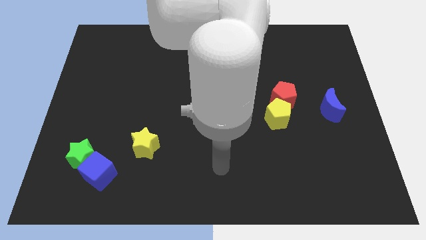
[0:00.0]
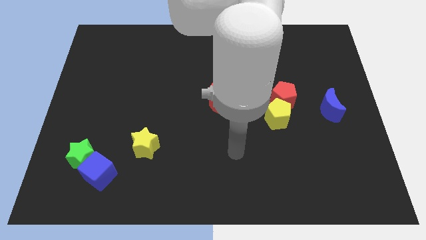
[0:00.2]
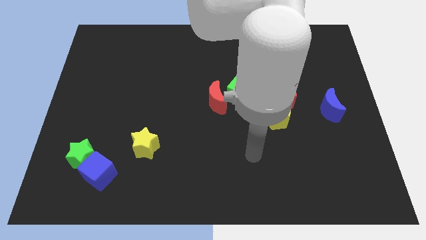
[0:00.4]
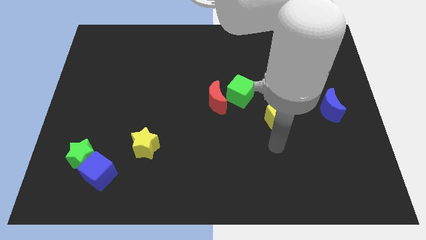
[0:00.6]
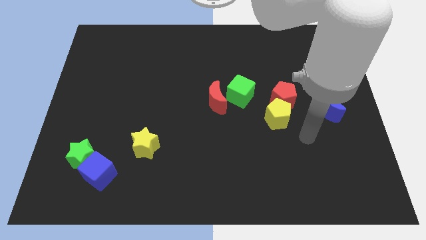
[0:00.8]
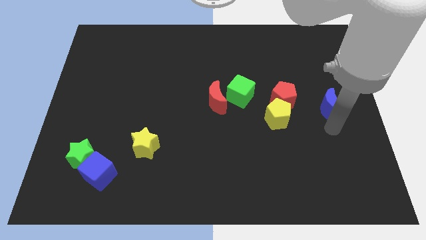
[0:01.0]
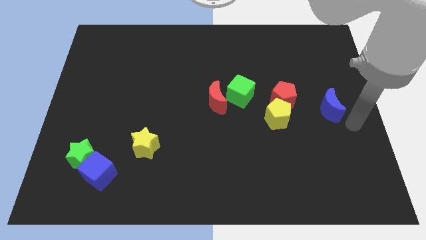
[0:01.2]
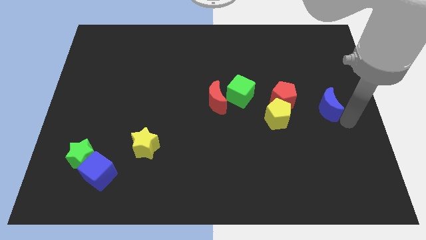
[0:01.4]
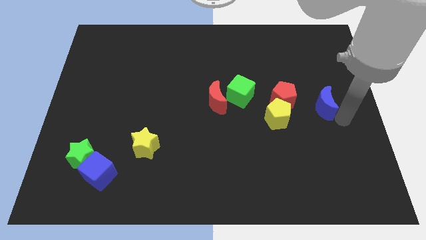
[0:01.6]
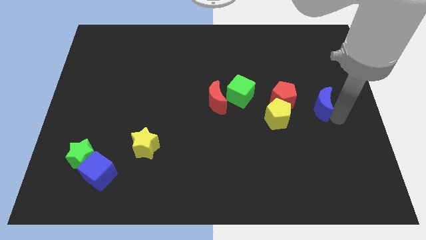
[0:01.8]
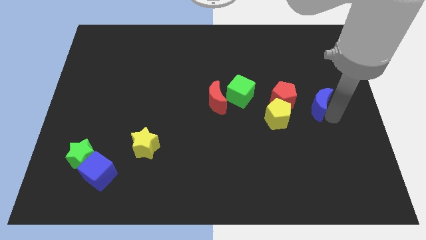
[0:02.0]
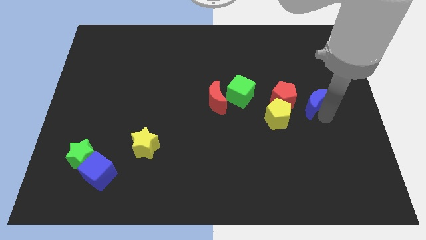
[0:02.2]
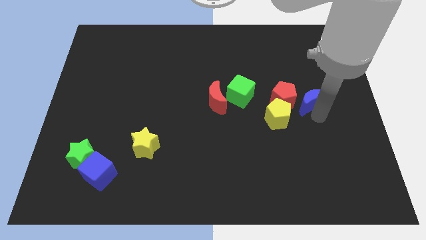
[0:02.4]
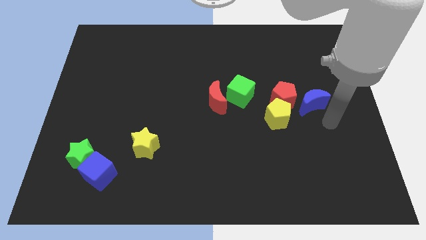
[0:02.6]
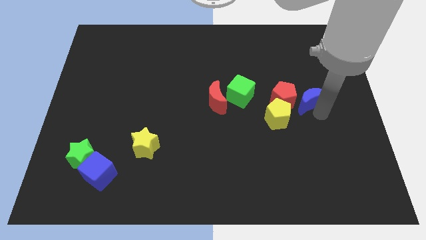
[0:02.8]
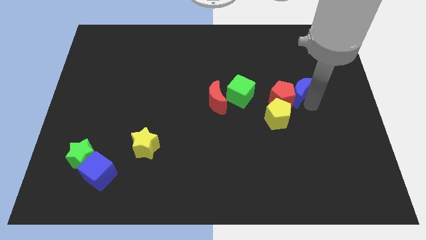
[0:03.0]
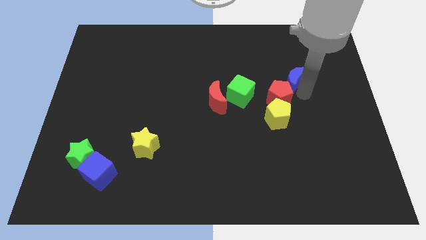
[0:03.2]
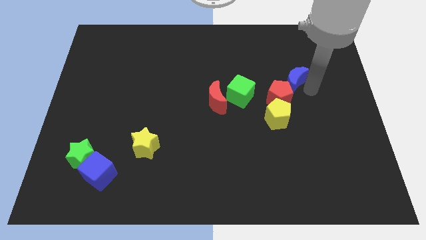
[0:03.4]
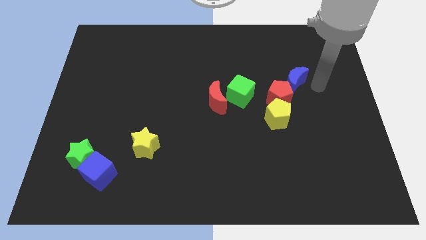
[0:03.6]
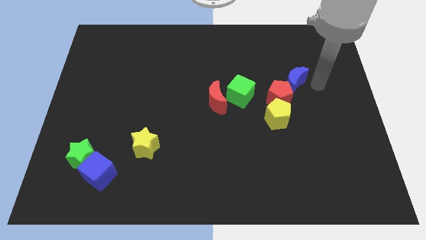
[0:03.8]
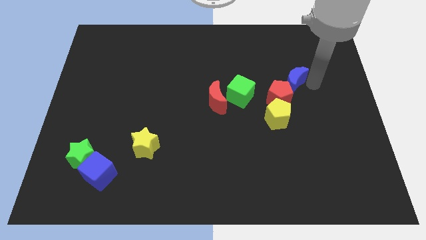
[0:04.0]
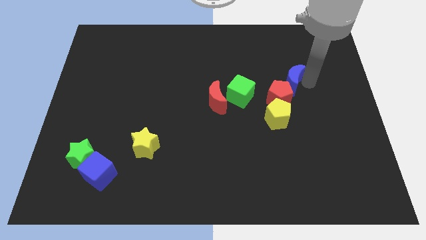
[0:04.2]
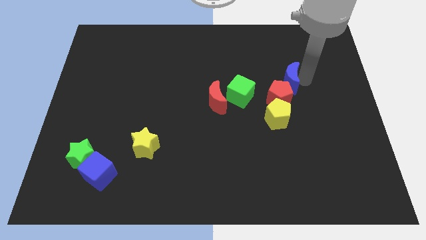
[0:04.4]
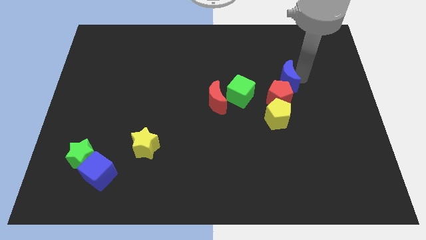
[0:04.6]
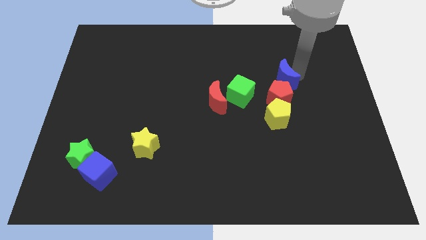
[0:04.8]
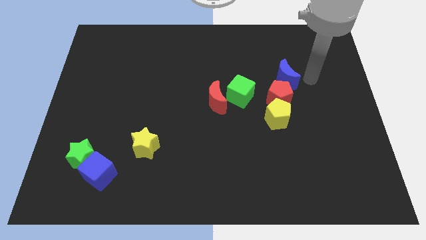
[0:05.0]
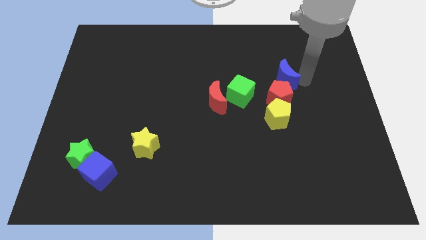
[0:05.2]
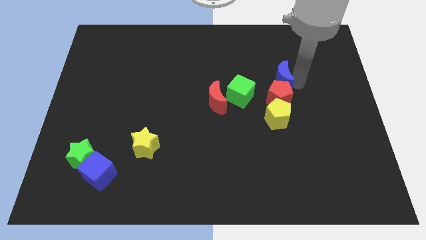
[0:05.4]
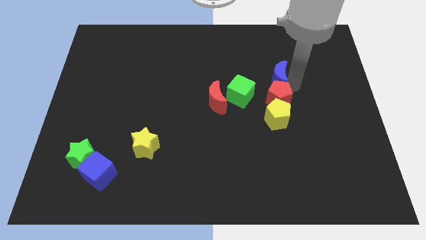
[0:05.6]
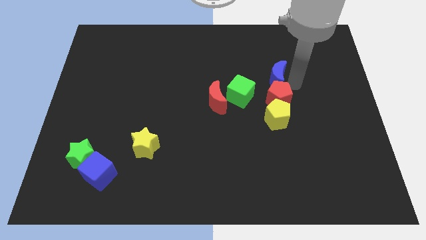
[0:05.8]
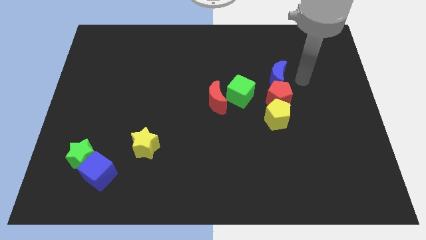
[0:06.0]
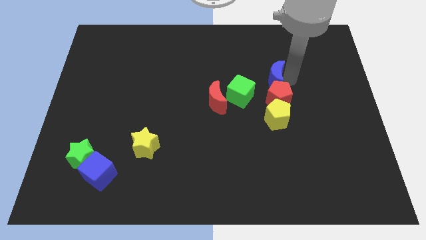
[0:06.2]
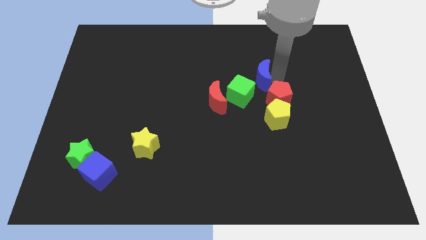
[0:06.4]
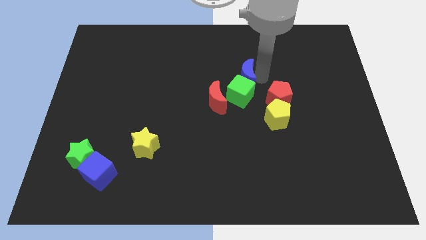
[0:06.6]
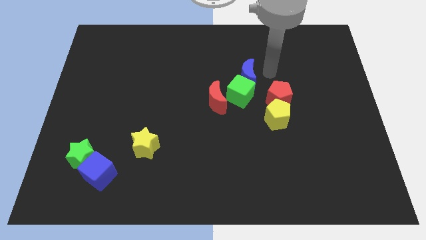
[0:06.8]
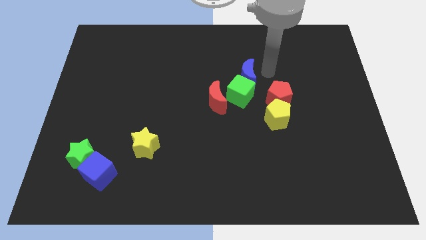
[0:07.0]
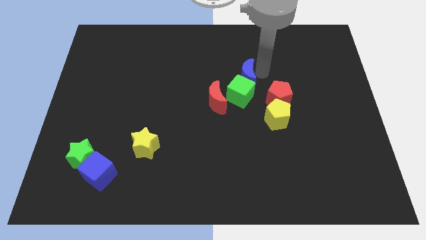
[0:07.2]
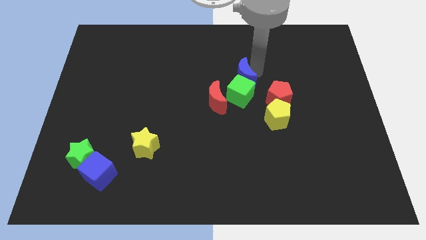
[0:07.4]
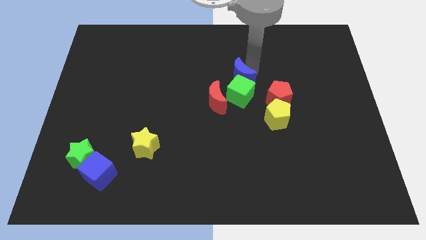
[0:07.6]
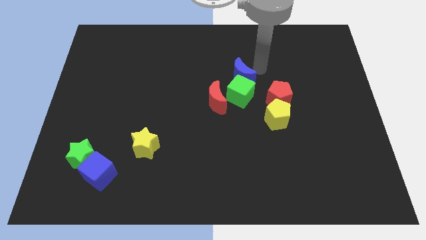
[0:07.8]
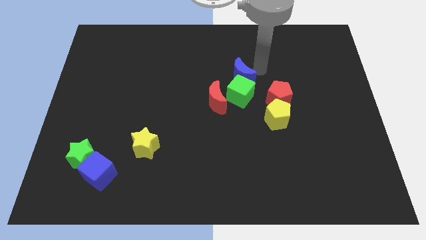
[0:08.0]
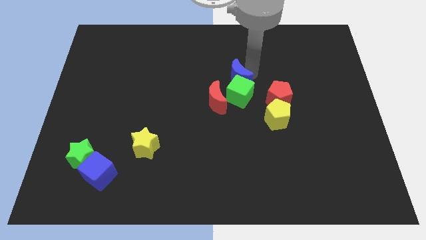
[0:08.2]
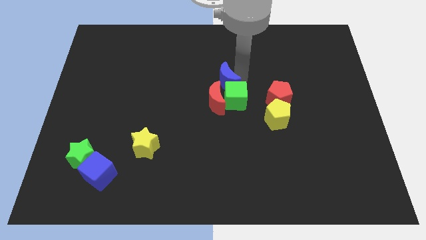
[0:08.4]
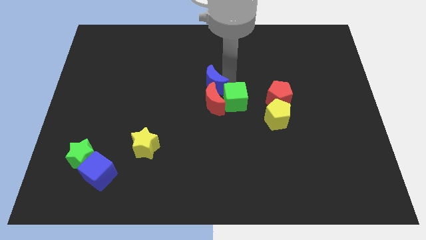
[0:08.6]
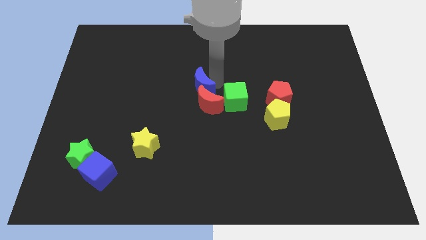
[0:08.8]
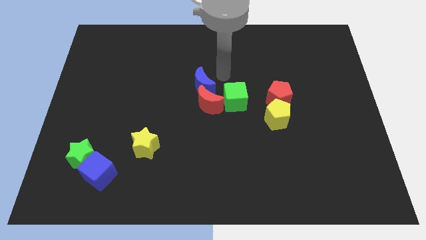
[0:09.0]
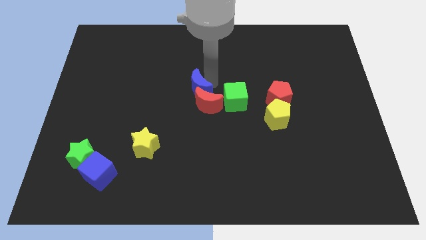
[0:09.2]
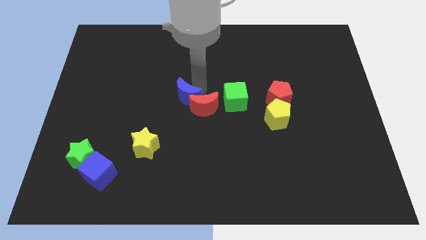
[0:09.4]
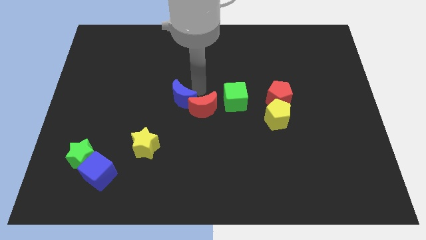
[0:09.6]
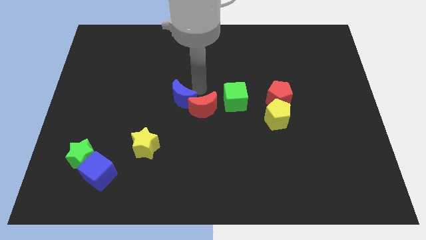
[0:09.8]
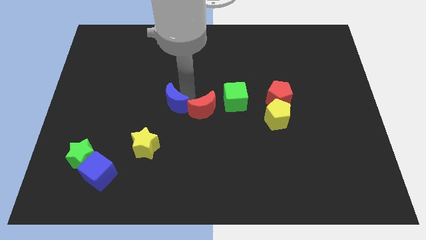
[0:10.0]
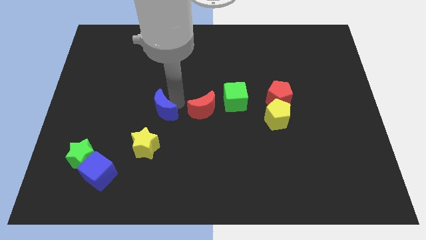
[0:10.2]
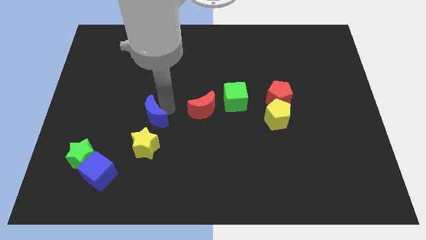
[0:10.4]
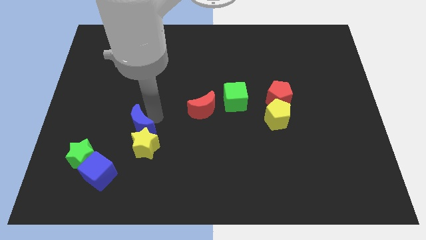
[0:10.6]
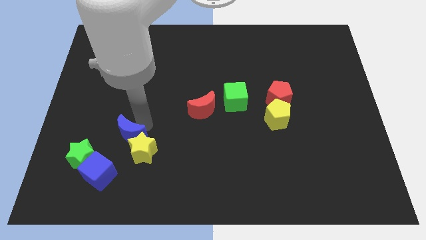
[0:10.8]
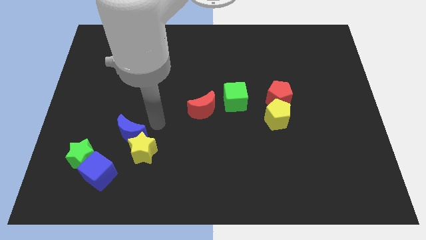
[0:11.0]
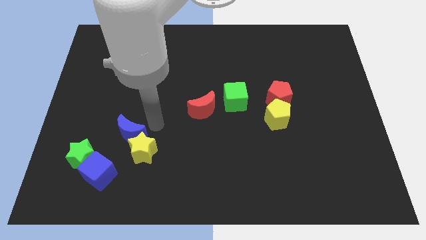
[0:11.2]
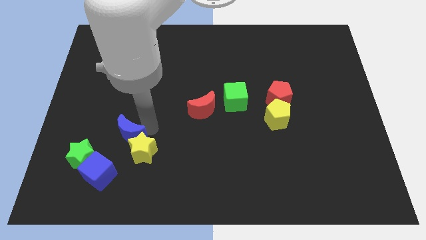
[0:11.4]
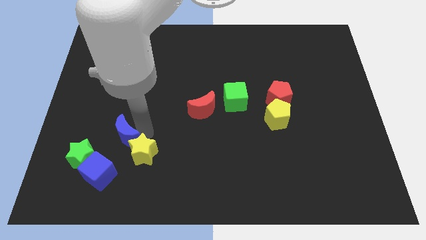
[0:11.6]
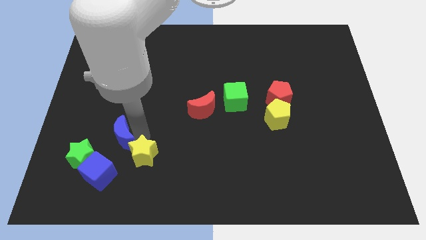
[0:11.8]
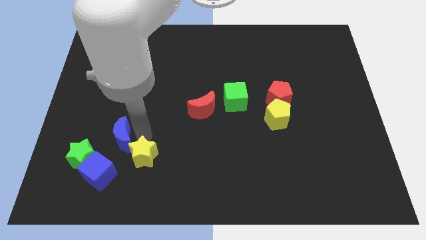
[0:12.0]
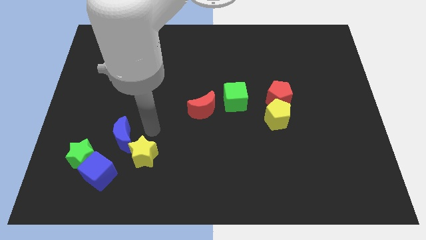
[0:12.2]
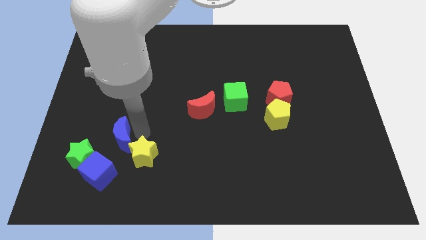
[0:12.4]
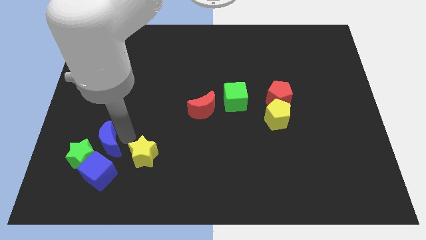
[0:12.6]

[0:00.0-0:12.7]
put the blue moon towards the green star
